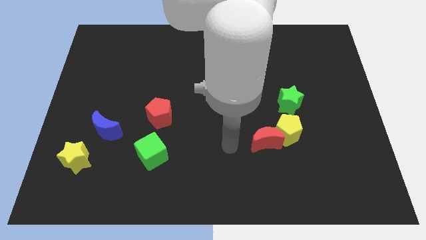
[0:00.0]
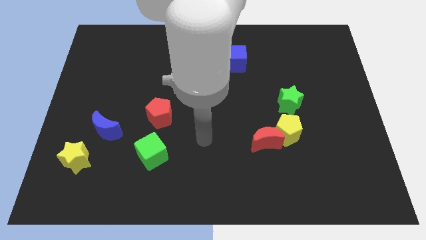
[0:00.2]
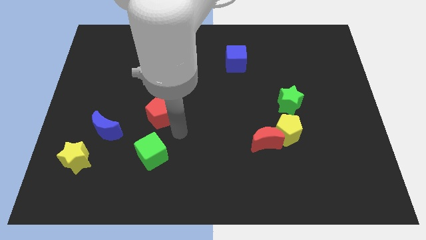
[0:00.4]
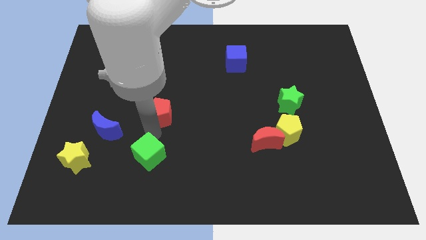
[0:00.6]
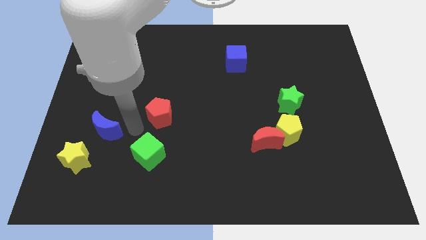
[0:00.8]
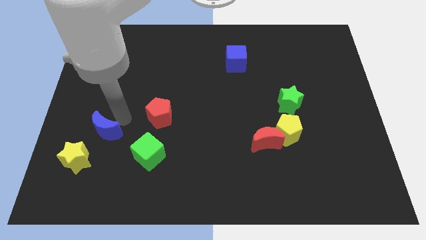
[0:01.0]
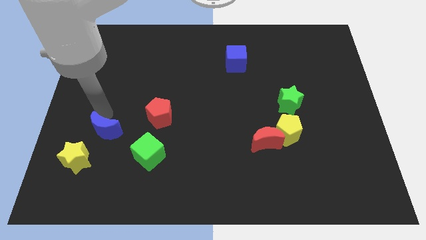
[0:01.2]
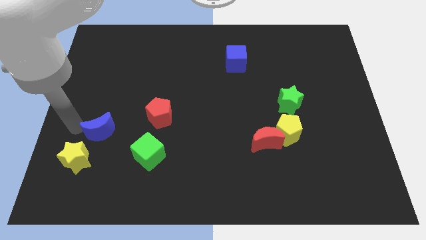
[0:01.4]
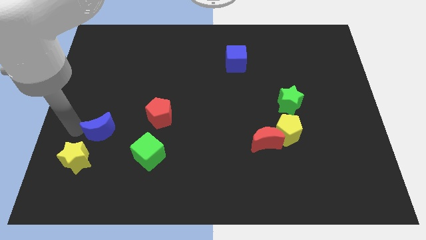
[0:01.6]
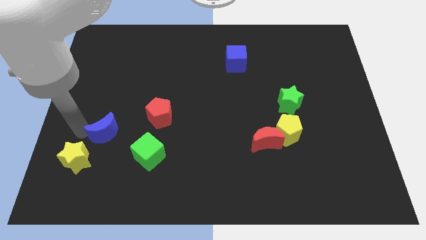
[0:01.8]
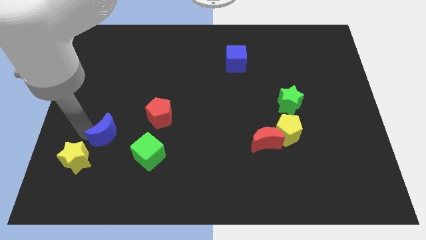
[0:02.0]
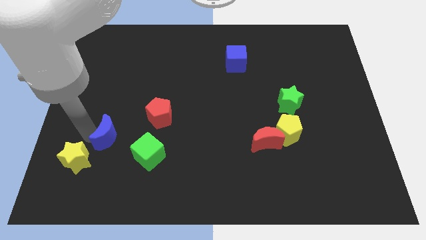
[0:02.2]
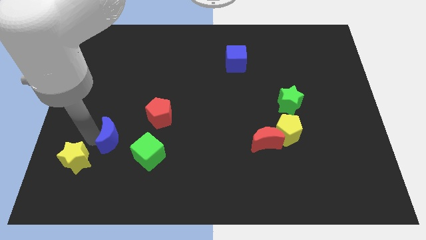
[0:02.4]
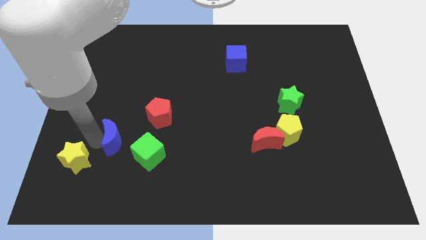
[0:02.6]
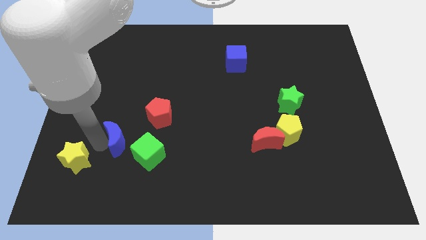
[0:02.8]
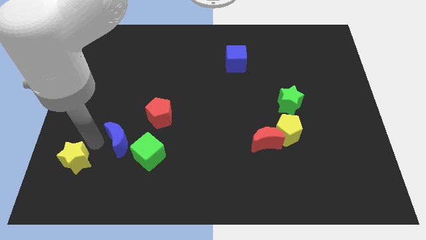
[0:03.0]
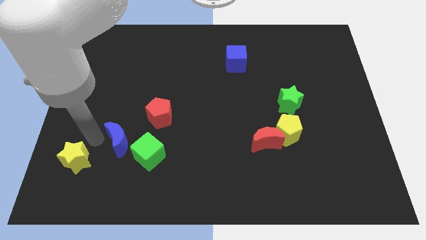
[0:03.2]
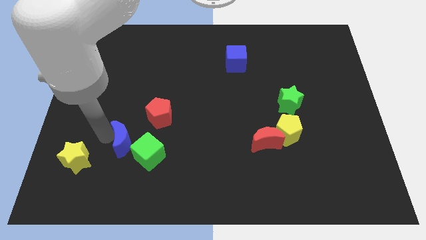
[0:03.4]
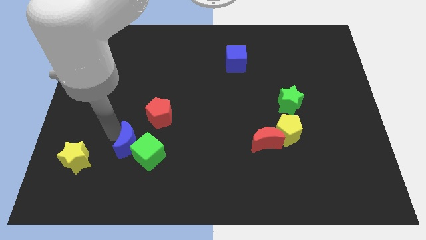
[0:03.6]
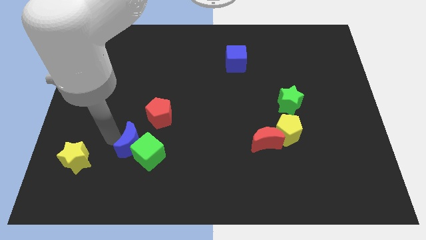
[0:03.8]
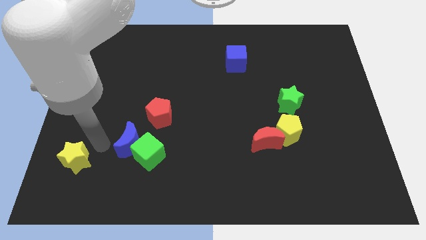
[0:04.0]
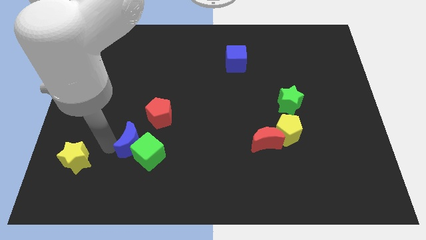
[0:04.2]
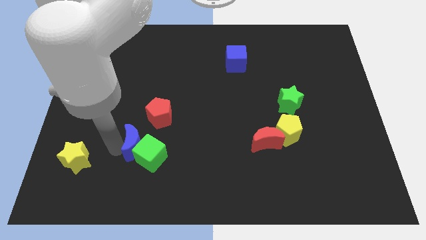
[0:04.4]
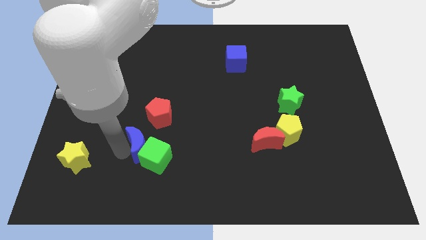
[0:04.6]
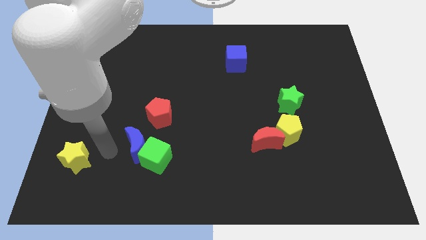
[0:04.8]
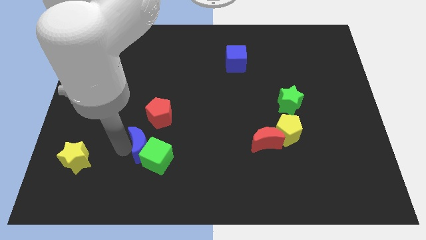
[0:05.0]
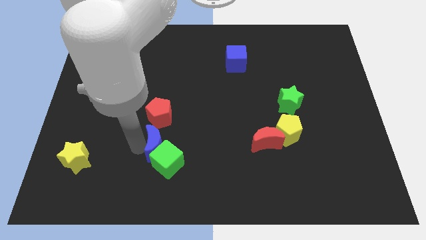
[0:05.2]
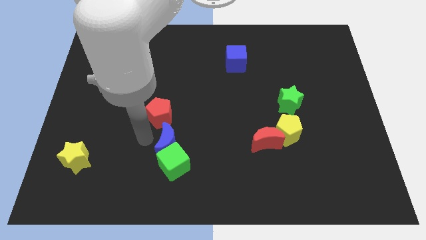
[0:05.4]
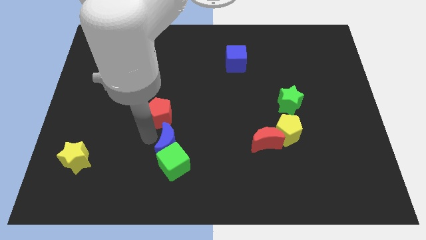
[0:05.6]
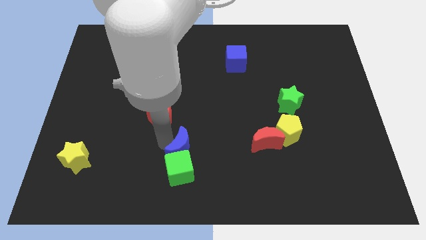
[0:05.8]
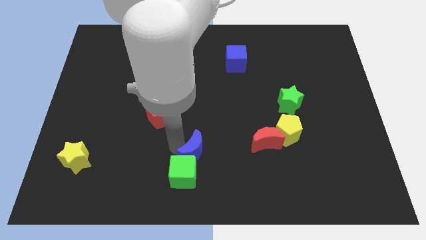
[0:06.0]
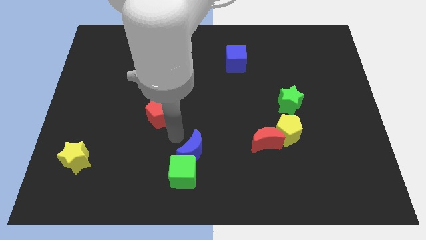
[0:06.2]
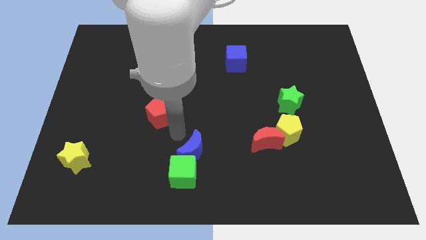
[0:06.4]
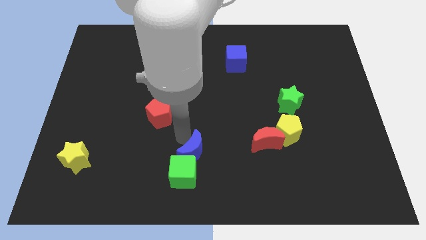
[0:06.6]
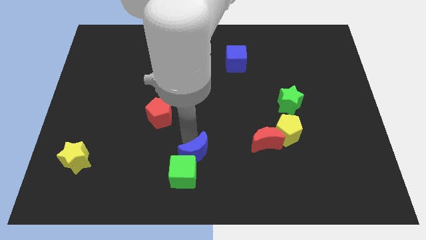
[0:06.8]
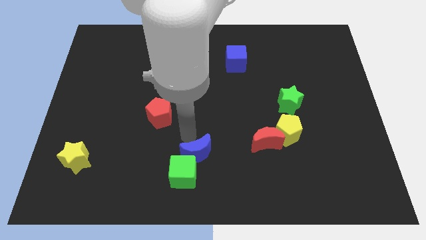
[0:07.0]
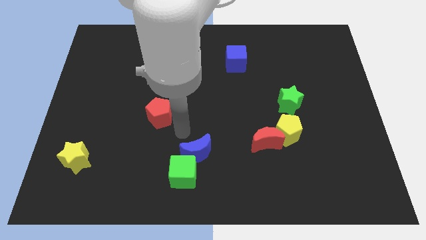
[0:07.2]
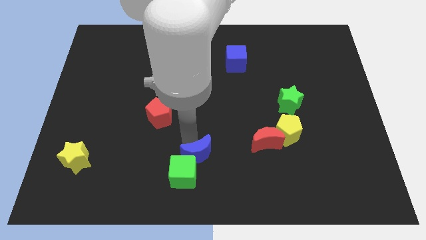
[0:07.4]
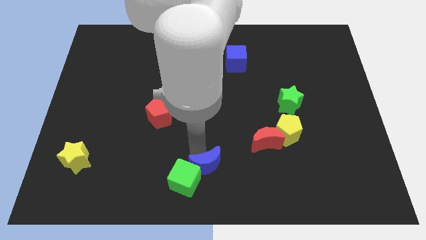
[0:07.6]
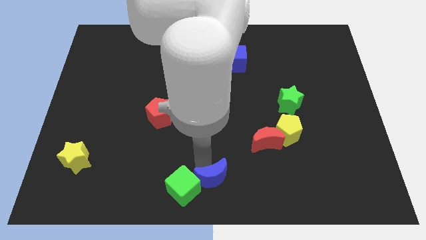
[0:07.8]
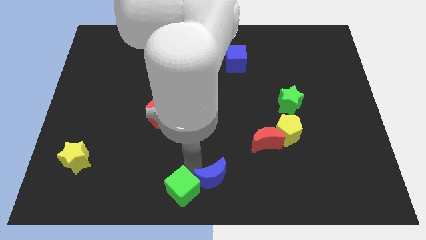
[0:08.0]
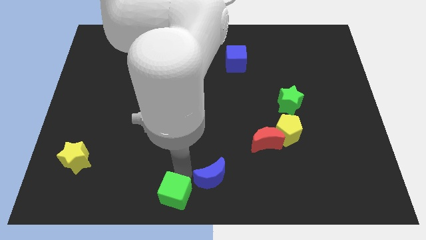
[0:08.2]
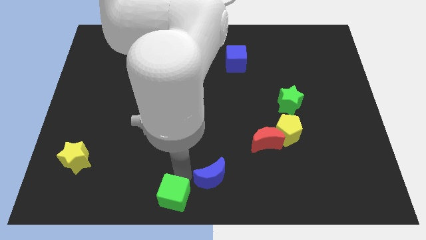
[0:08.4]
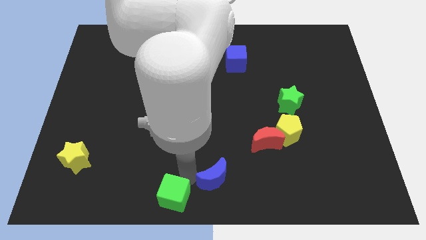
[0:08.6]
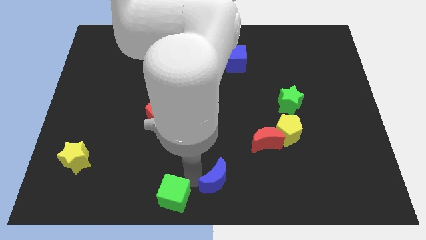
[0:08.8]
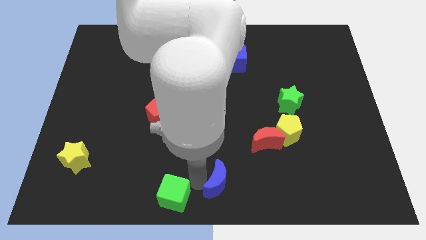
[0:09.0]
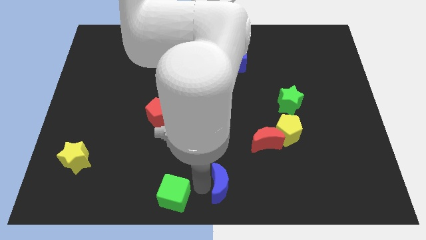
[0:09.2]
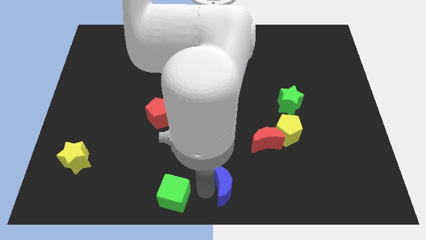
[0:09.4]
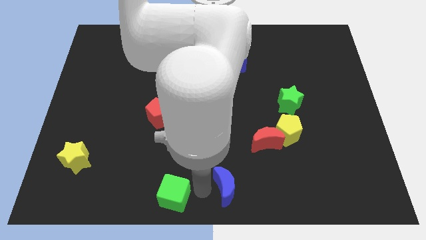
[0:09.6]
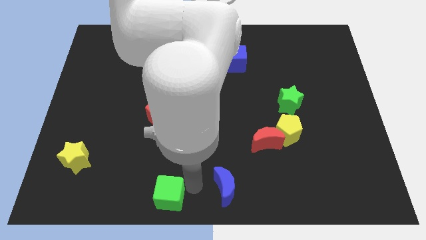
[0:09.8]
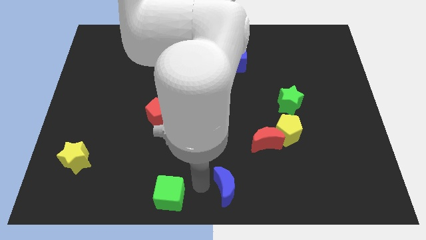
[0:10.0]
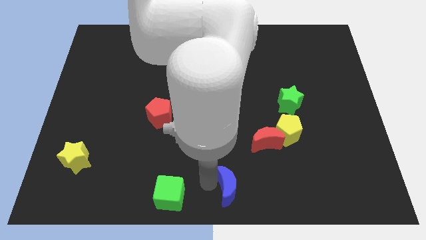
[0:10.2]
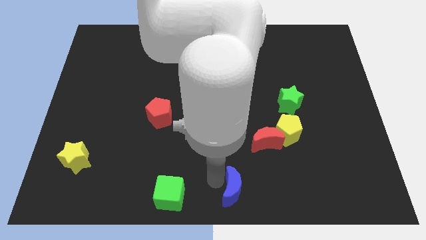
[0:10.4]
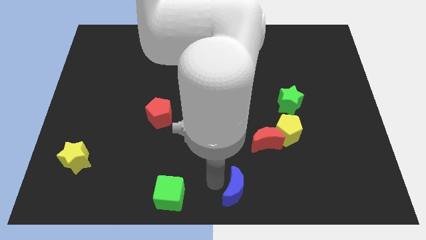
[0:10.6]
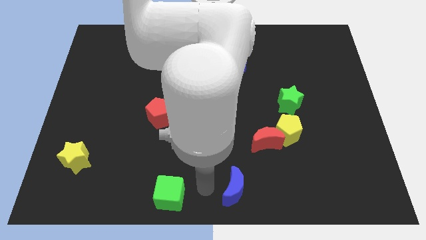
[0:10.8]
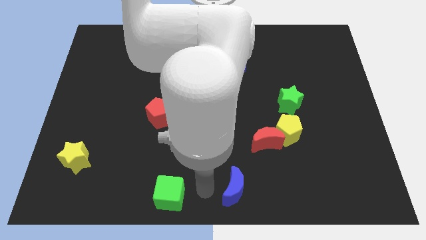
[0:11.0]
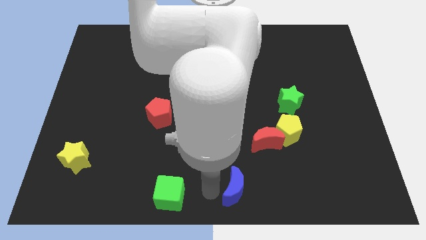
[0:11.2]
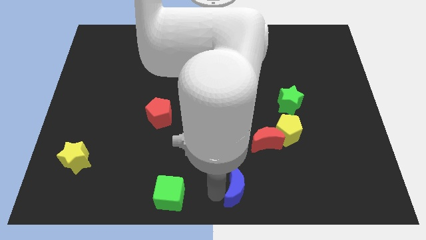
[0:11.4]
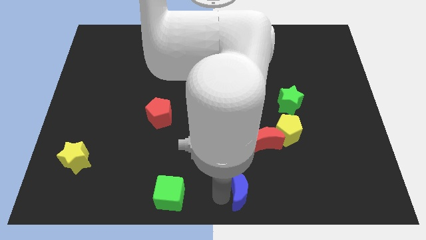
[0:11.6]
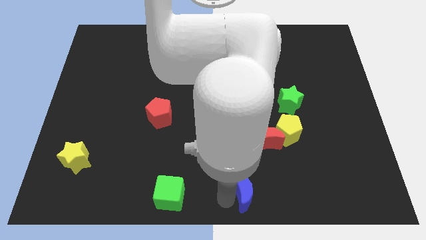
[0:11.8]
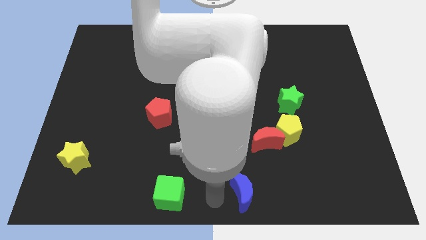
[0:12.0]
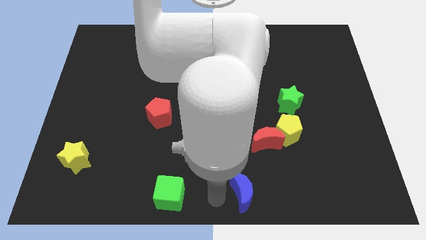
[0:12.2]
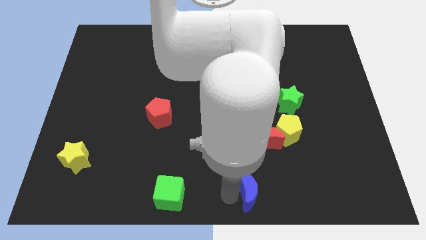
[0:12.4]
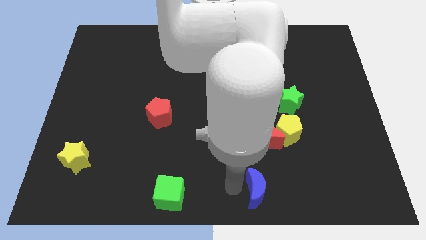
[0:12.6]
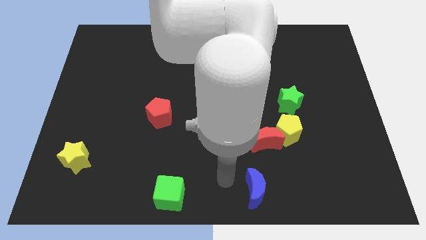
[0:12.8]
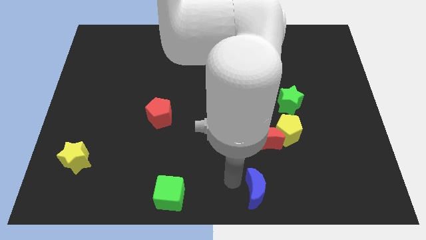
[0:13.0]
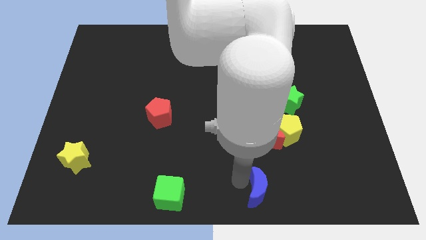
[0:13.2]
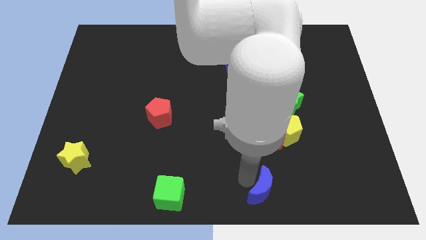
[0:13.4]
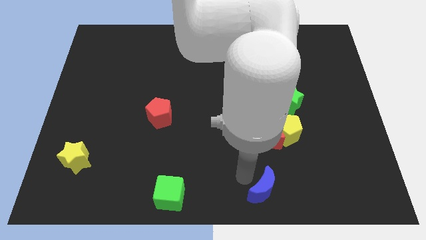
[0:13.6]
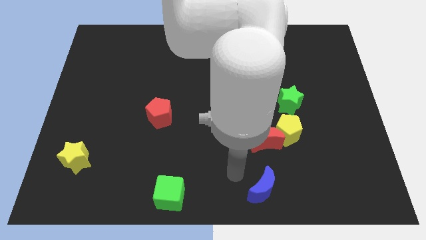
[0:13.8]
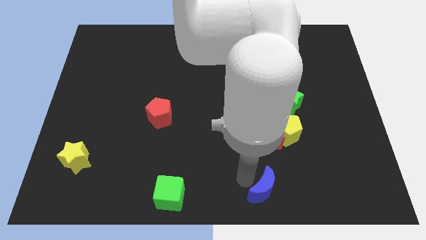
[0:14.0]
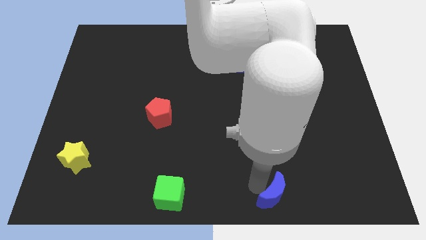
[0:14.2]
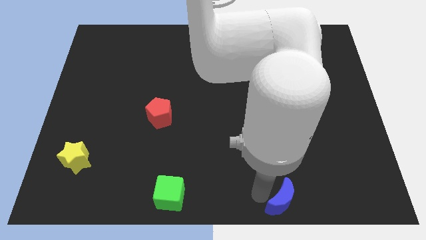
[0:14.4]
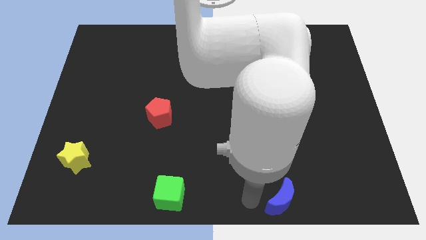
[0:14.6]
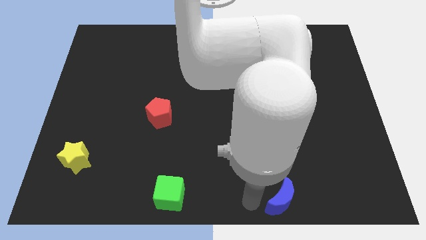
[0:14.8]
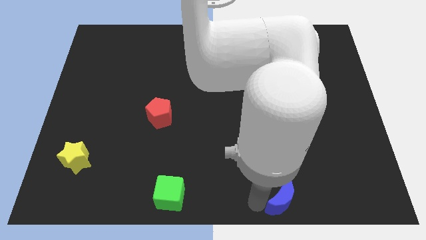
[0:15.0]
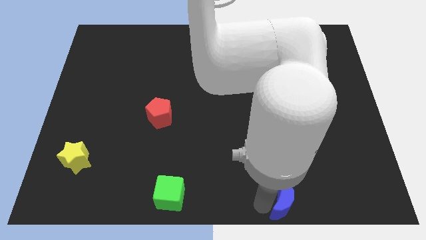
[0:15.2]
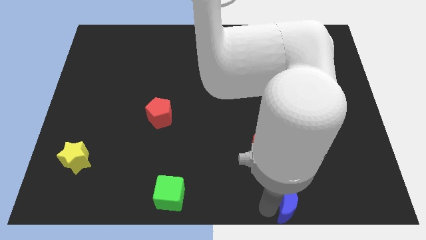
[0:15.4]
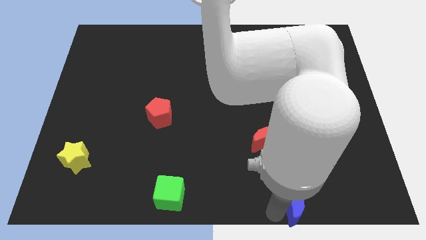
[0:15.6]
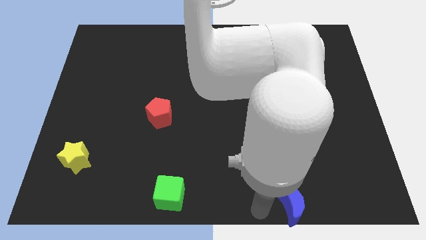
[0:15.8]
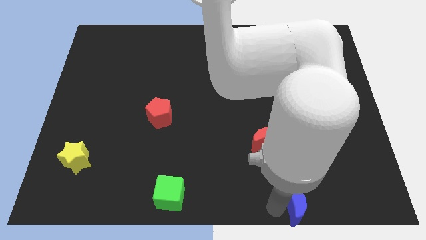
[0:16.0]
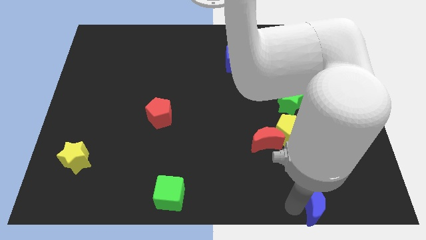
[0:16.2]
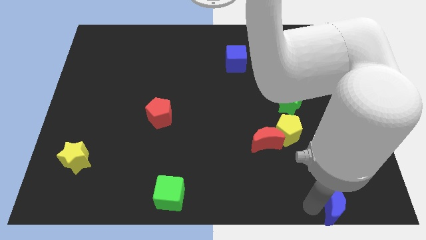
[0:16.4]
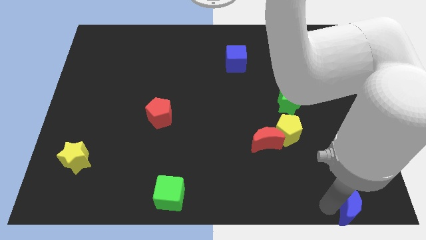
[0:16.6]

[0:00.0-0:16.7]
put the blue moon to the bottom right of the board
